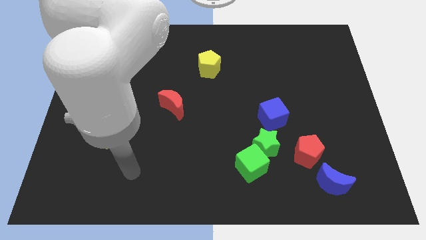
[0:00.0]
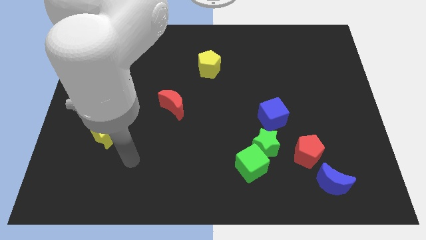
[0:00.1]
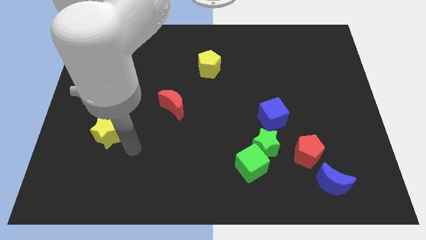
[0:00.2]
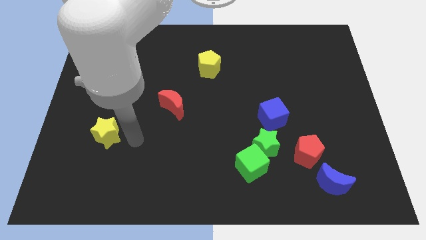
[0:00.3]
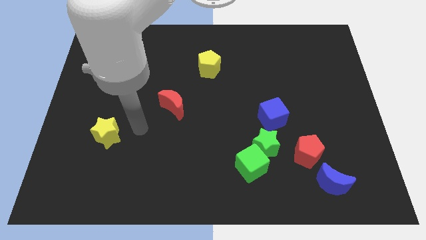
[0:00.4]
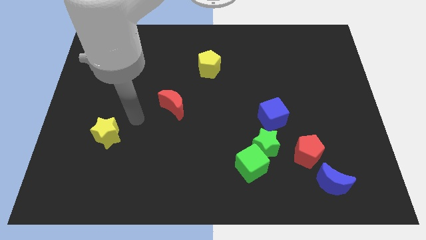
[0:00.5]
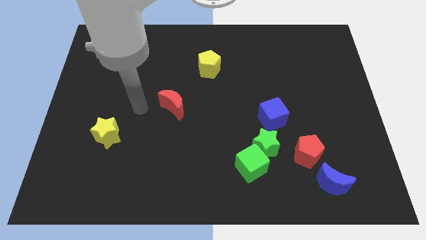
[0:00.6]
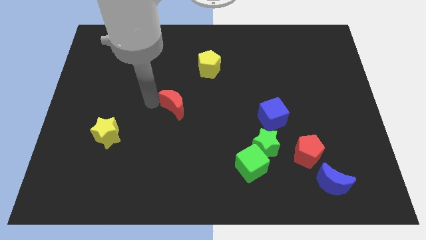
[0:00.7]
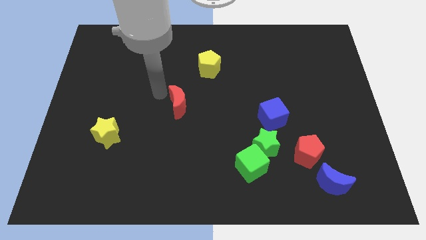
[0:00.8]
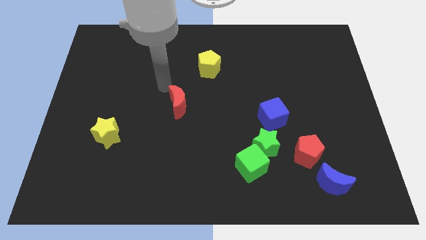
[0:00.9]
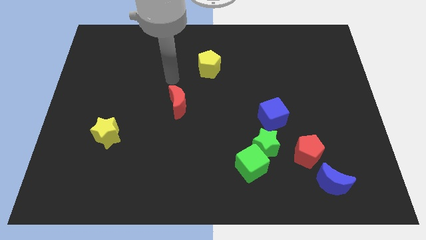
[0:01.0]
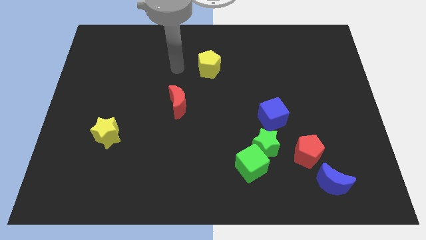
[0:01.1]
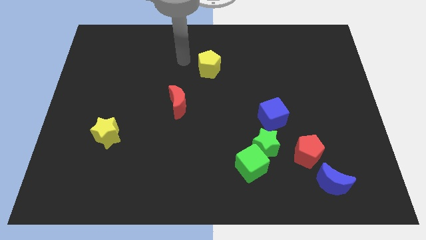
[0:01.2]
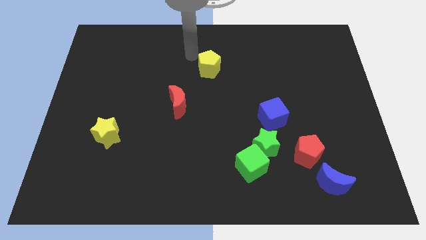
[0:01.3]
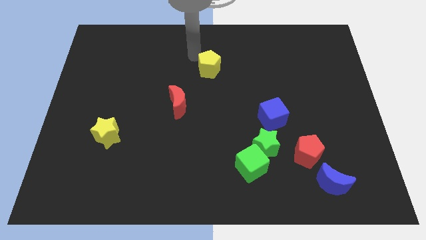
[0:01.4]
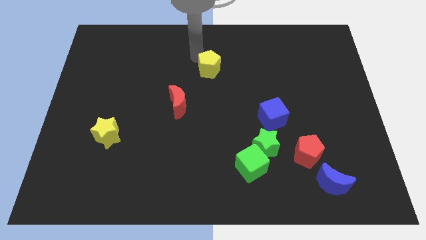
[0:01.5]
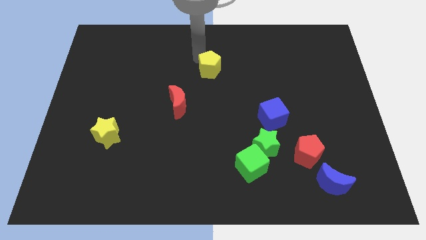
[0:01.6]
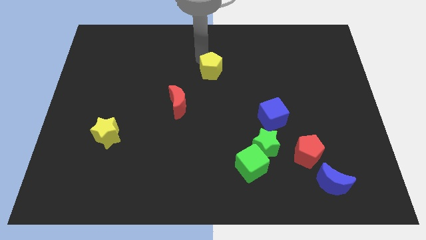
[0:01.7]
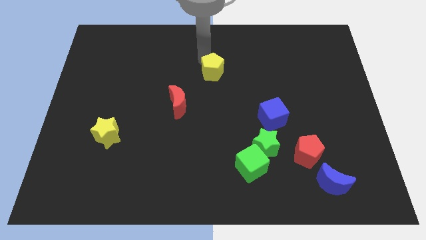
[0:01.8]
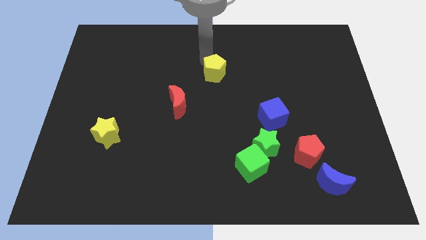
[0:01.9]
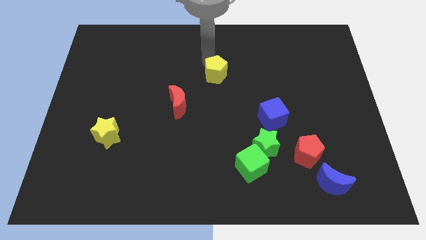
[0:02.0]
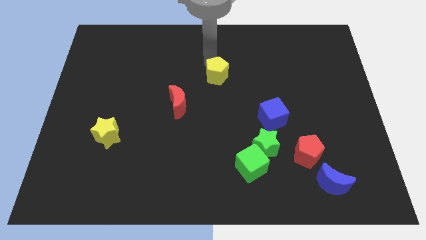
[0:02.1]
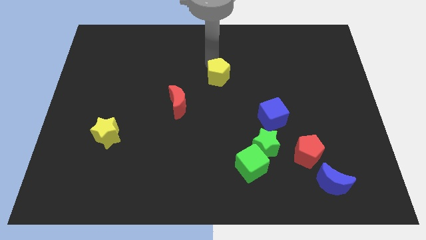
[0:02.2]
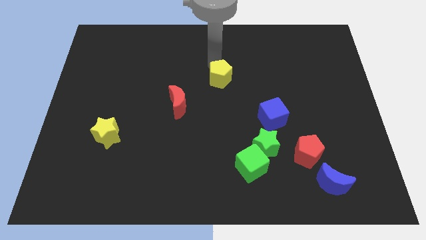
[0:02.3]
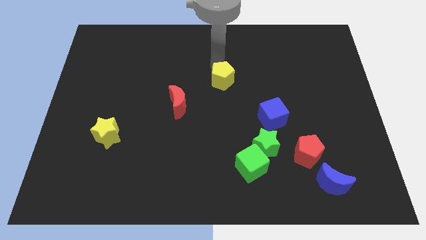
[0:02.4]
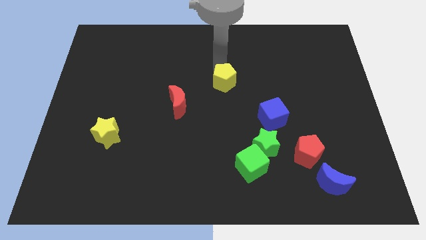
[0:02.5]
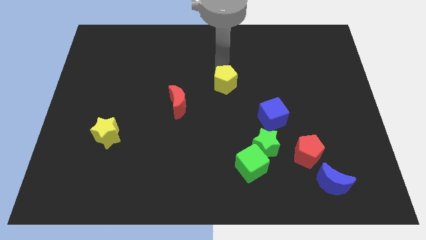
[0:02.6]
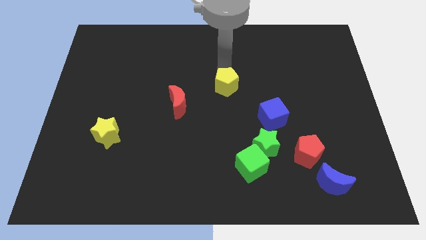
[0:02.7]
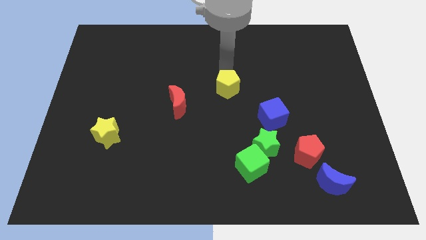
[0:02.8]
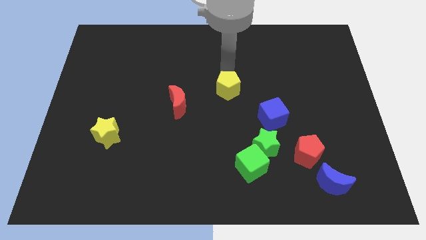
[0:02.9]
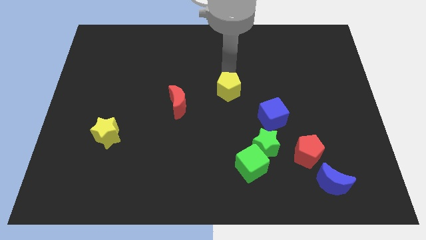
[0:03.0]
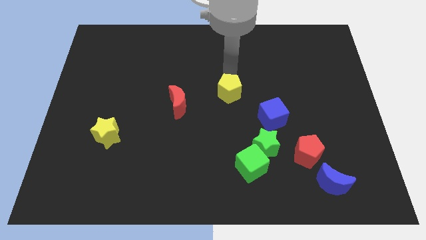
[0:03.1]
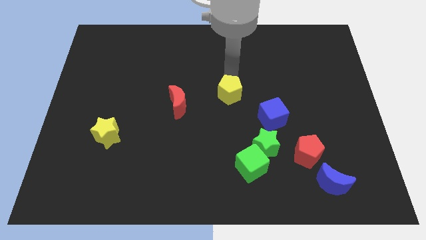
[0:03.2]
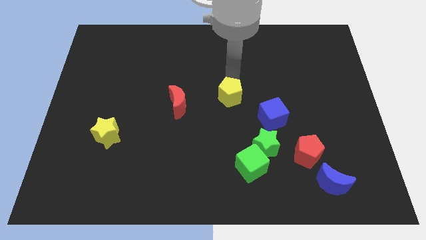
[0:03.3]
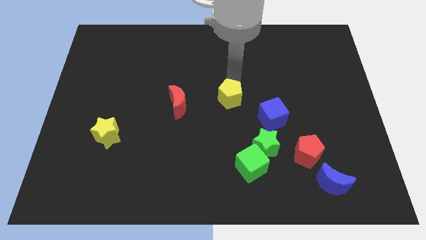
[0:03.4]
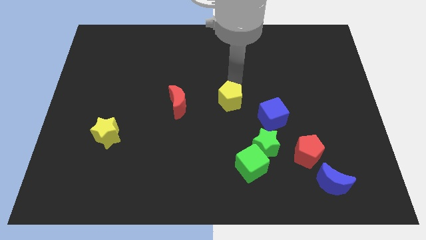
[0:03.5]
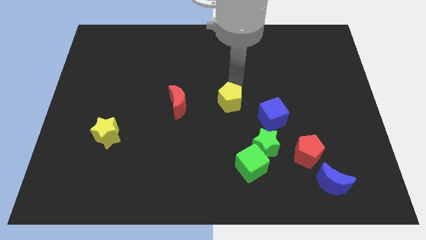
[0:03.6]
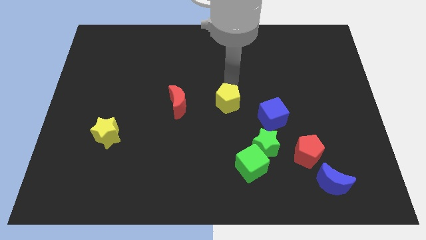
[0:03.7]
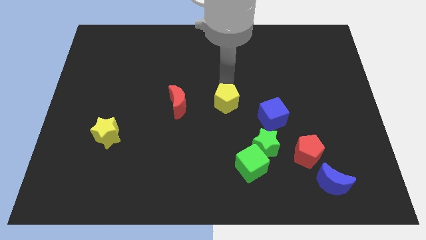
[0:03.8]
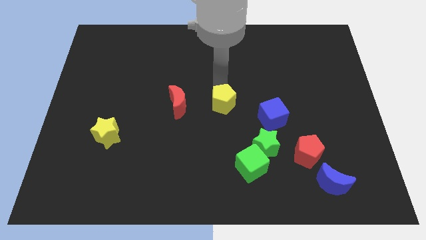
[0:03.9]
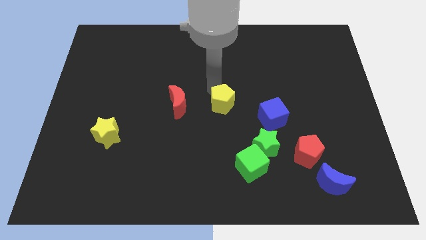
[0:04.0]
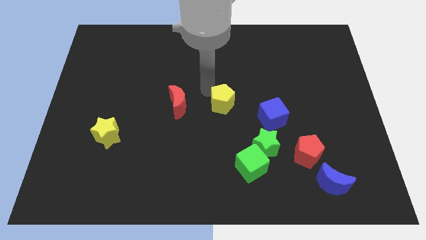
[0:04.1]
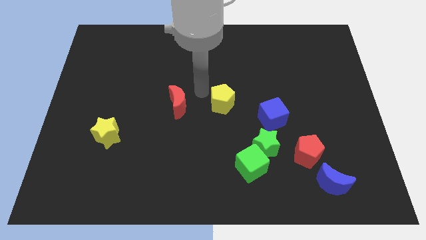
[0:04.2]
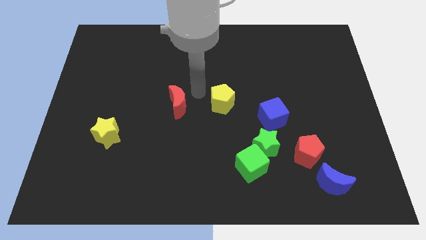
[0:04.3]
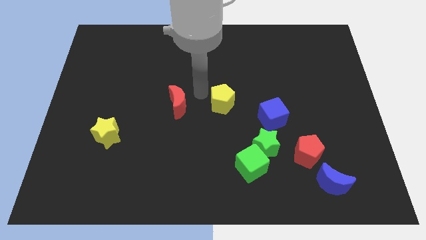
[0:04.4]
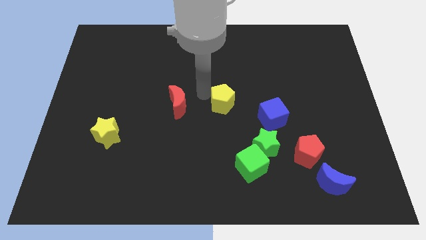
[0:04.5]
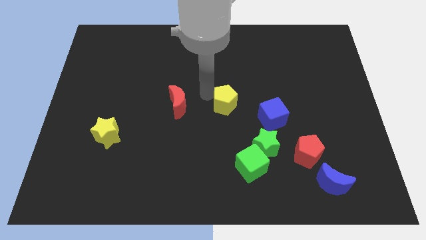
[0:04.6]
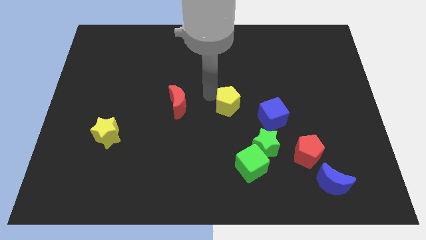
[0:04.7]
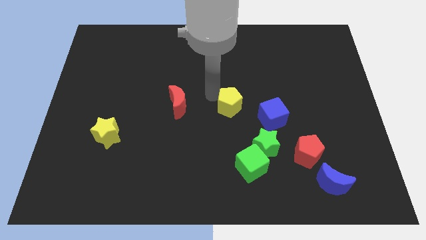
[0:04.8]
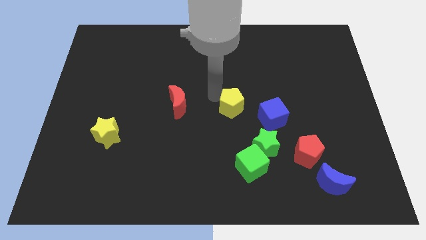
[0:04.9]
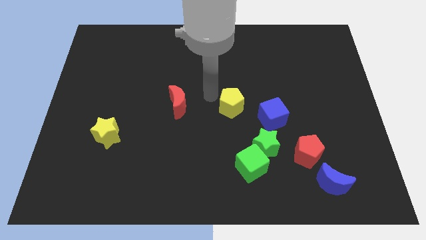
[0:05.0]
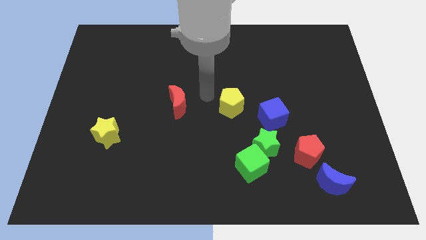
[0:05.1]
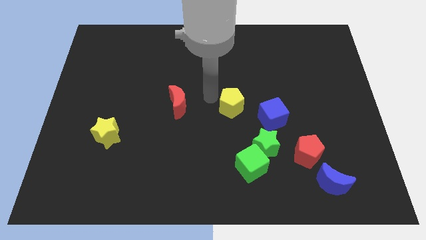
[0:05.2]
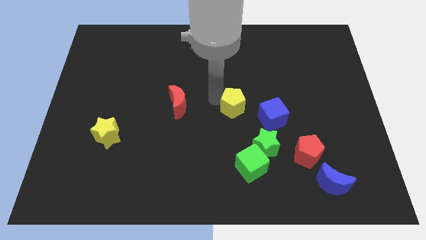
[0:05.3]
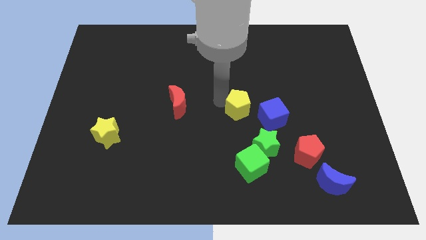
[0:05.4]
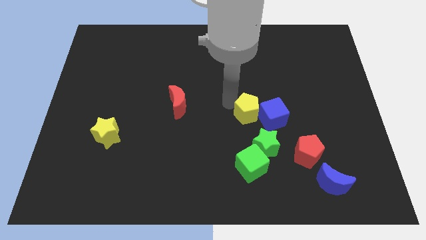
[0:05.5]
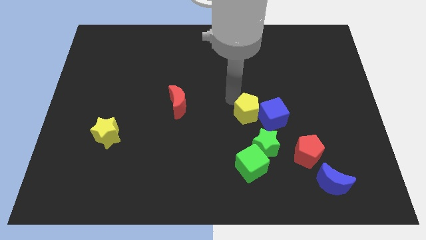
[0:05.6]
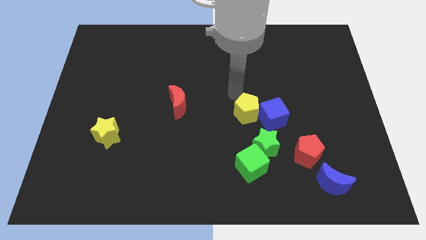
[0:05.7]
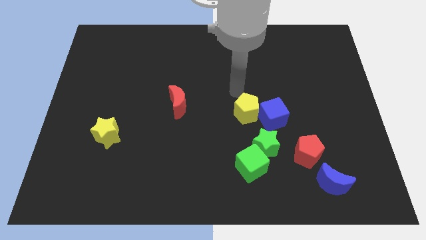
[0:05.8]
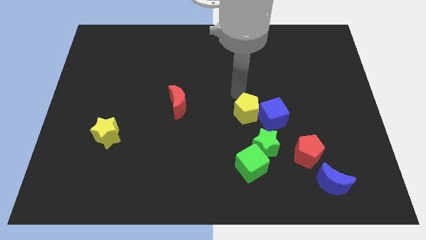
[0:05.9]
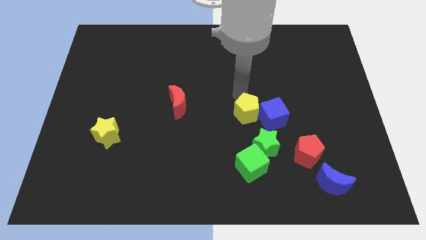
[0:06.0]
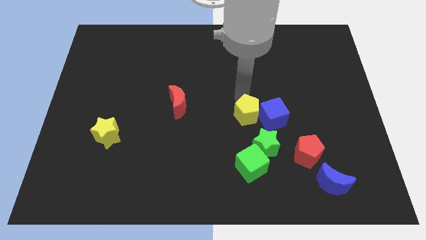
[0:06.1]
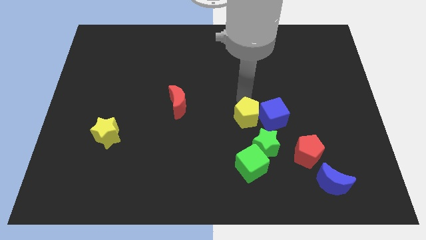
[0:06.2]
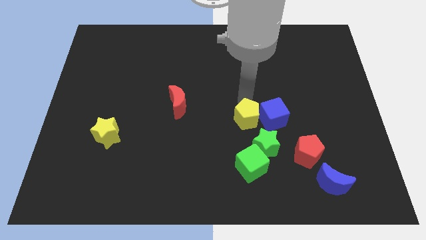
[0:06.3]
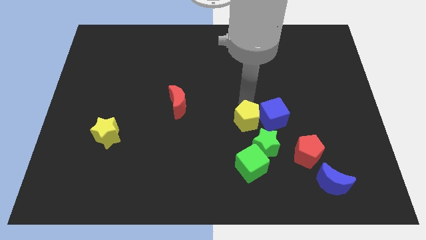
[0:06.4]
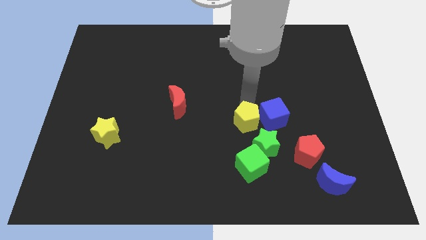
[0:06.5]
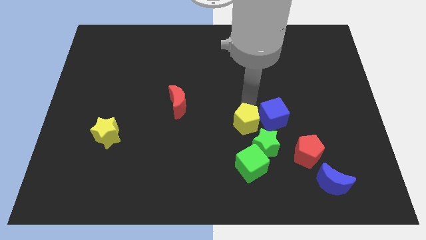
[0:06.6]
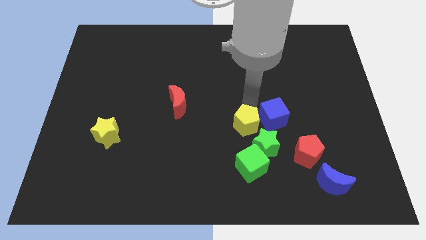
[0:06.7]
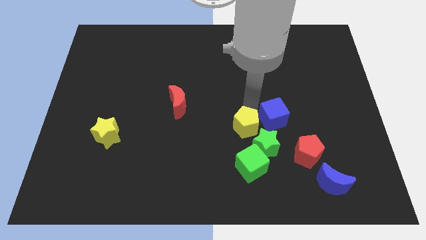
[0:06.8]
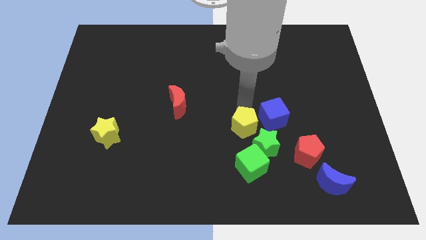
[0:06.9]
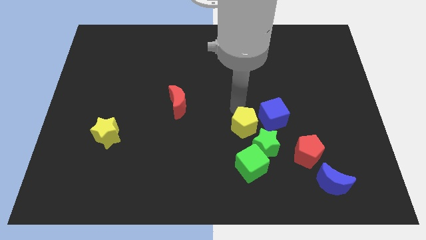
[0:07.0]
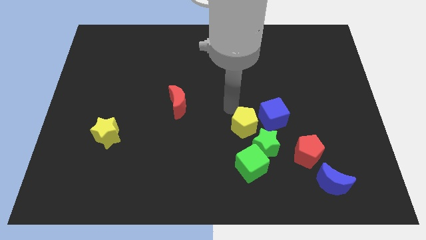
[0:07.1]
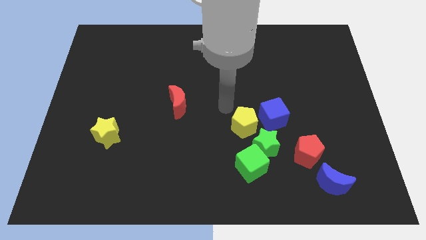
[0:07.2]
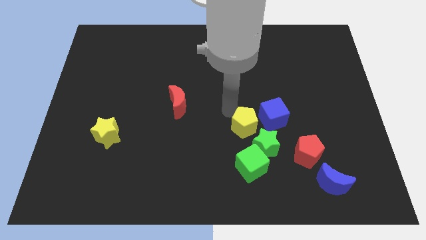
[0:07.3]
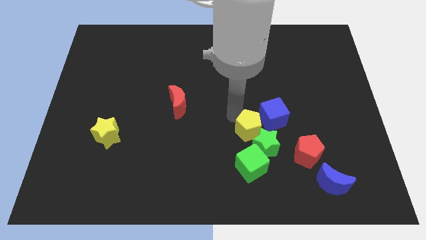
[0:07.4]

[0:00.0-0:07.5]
put the yellow pentagon next to the green star

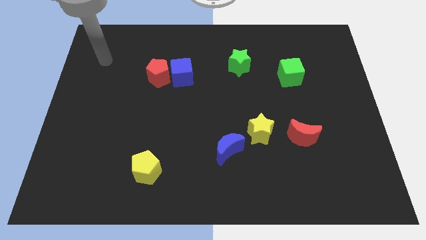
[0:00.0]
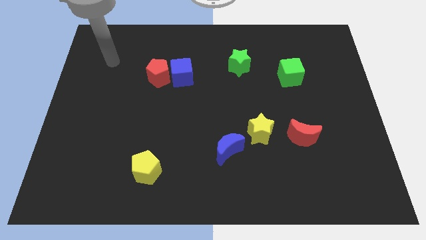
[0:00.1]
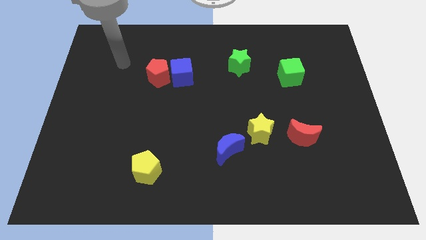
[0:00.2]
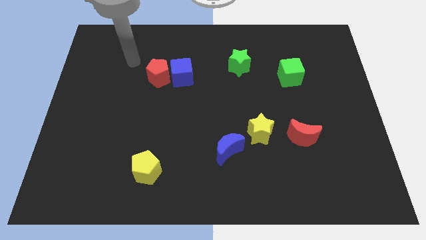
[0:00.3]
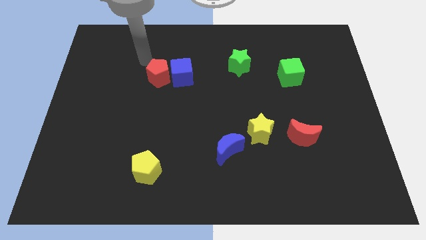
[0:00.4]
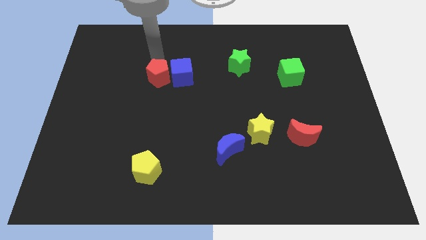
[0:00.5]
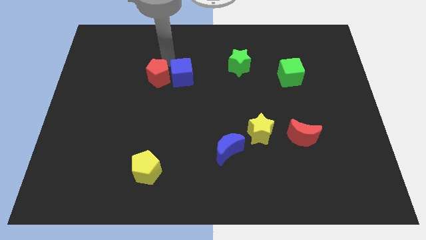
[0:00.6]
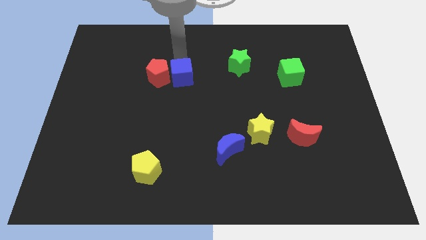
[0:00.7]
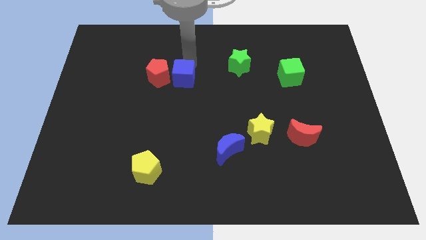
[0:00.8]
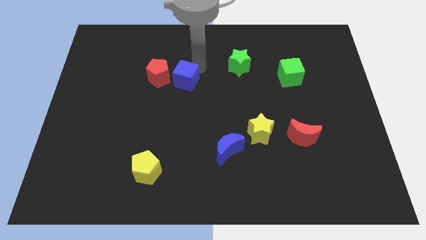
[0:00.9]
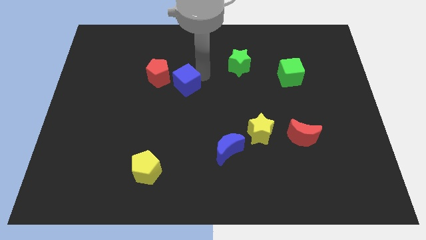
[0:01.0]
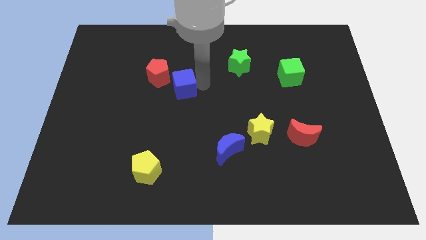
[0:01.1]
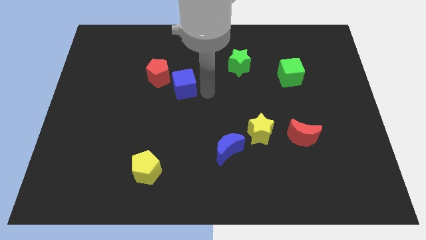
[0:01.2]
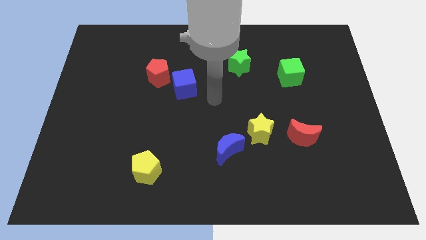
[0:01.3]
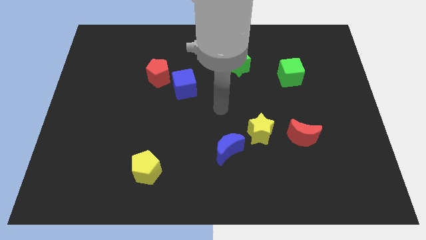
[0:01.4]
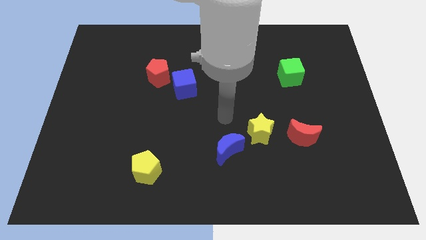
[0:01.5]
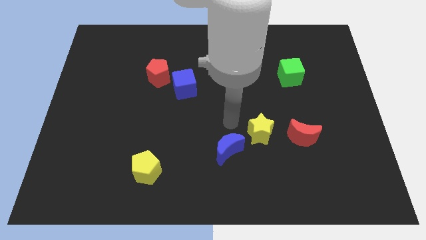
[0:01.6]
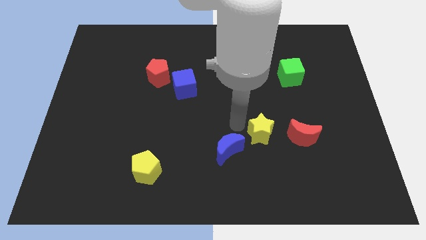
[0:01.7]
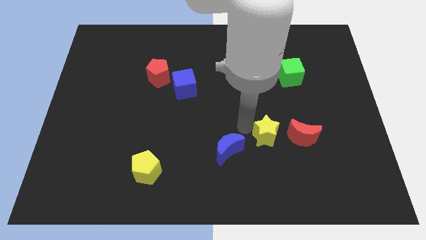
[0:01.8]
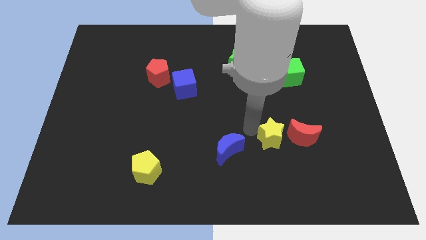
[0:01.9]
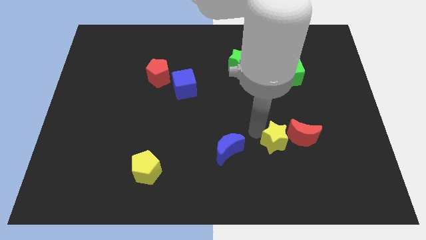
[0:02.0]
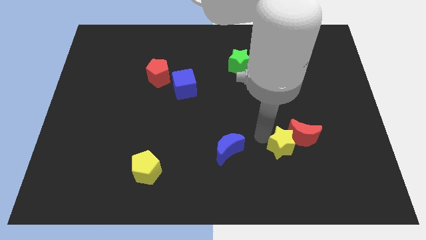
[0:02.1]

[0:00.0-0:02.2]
move the yellow star next to the red moon
